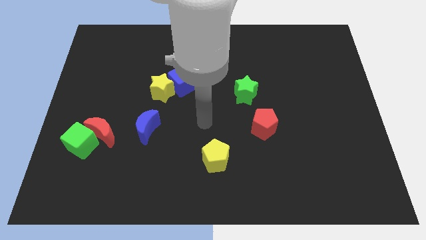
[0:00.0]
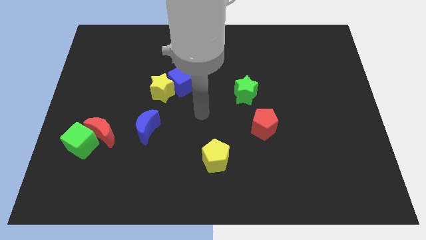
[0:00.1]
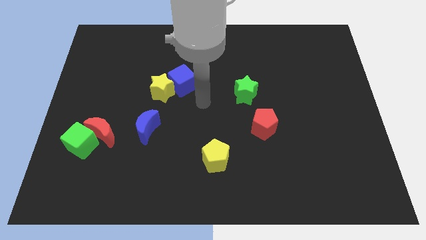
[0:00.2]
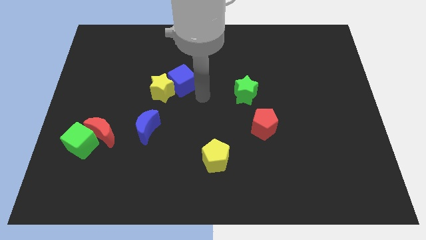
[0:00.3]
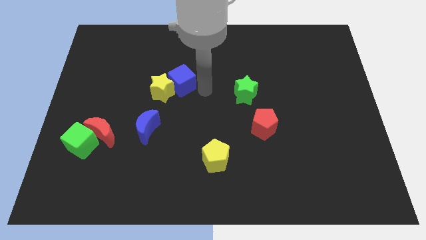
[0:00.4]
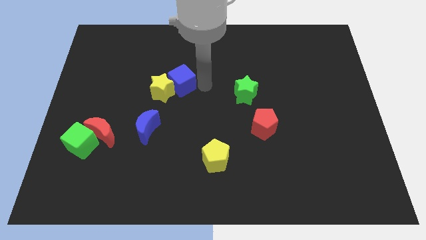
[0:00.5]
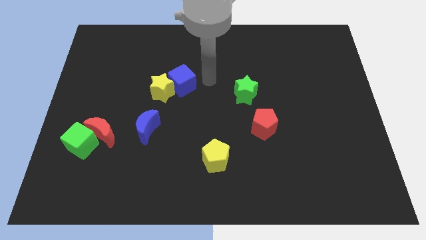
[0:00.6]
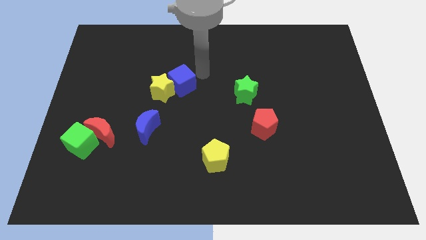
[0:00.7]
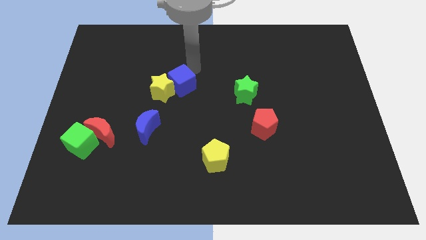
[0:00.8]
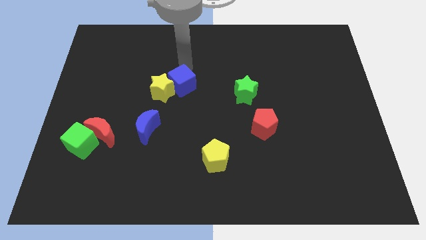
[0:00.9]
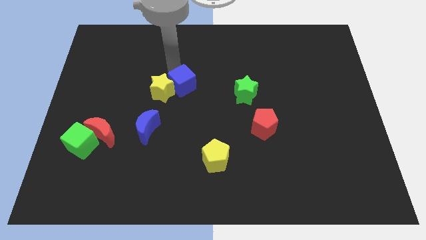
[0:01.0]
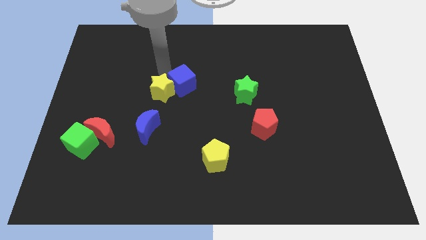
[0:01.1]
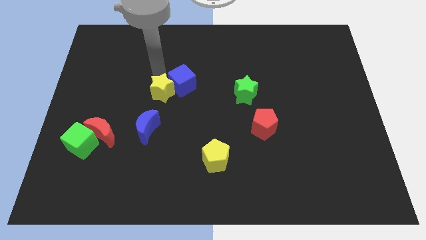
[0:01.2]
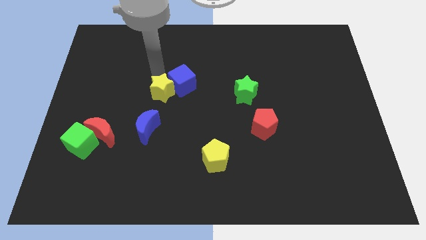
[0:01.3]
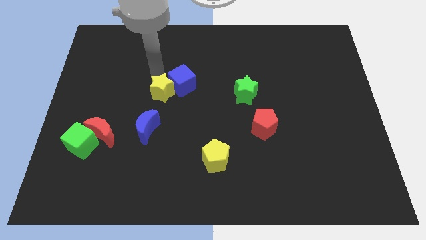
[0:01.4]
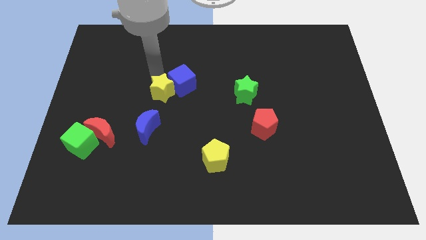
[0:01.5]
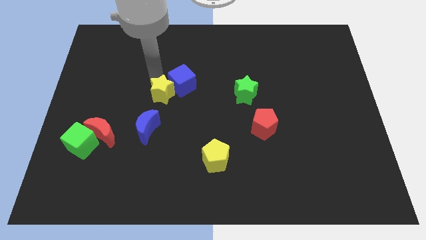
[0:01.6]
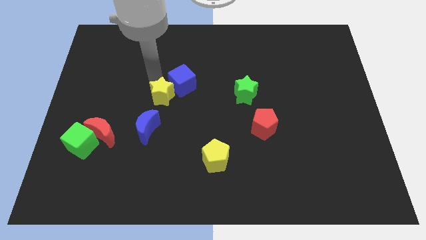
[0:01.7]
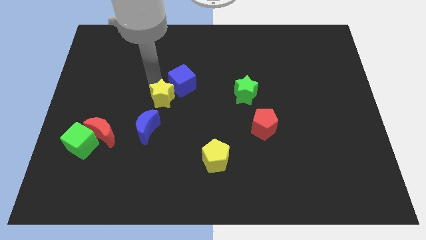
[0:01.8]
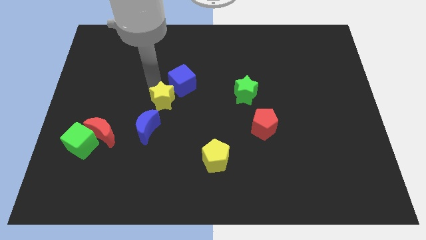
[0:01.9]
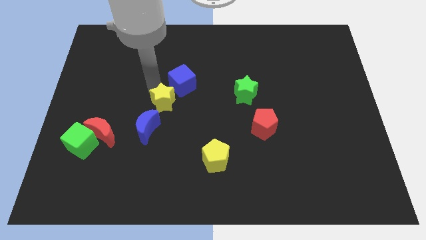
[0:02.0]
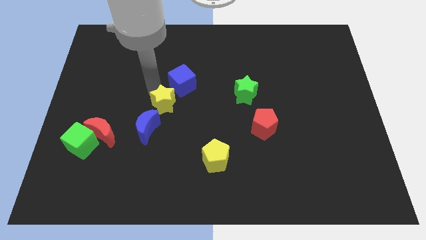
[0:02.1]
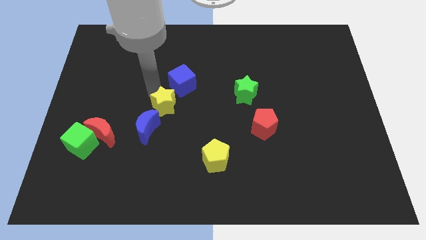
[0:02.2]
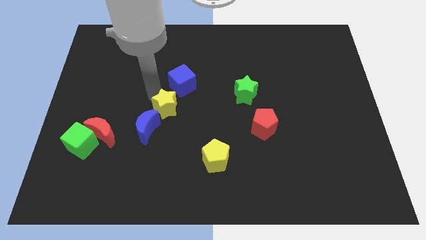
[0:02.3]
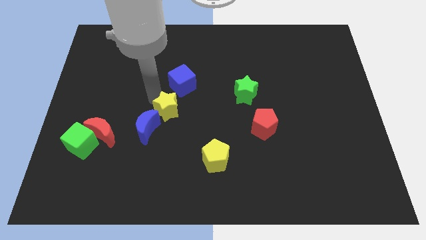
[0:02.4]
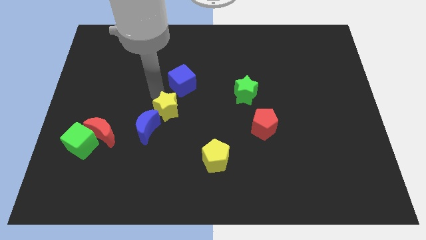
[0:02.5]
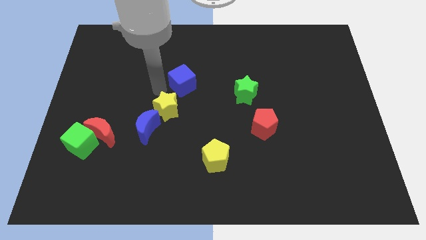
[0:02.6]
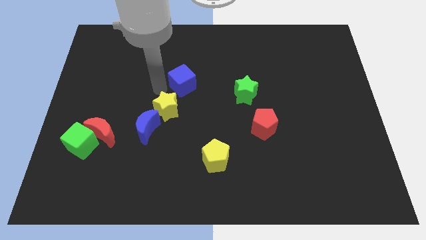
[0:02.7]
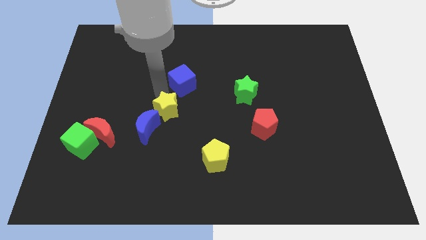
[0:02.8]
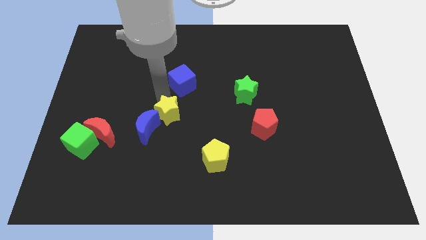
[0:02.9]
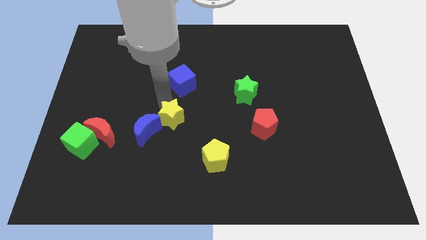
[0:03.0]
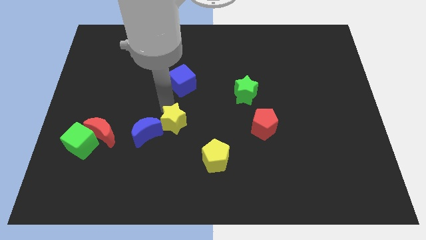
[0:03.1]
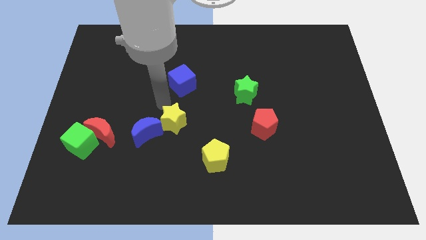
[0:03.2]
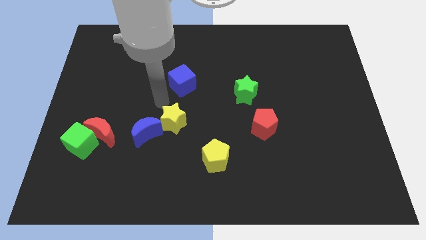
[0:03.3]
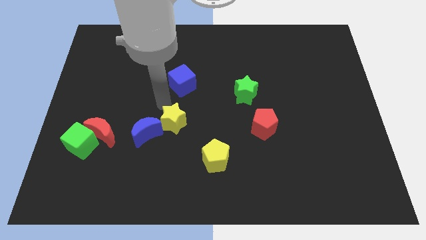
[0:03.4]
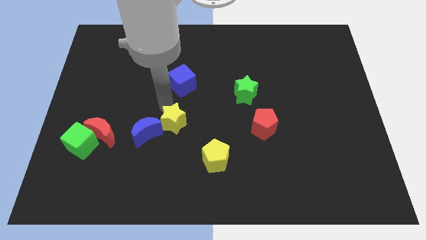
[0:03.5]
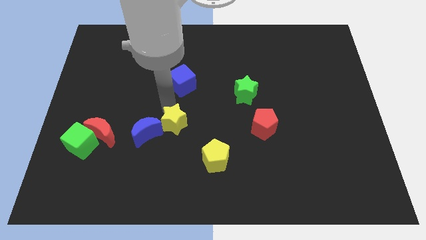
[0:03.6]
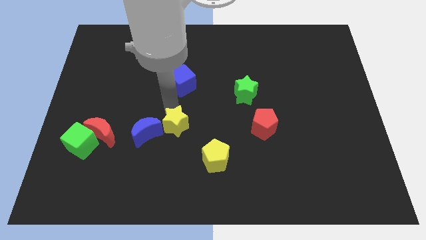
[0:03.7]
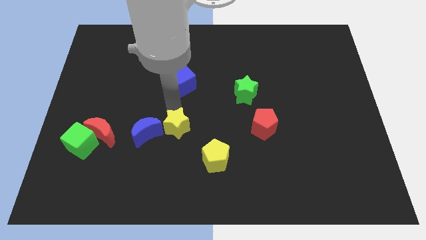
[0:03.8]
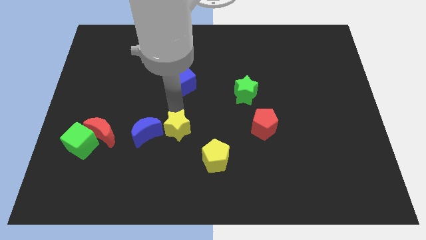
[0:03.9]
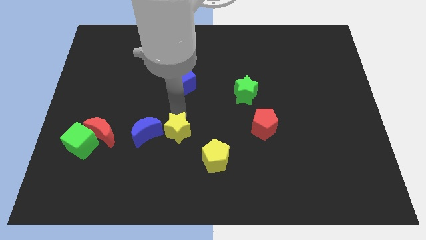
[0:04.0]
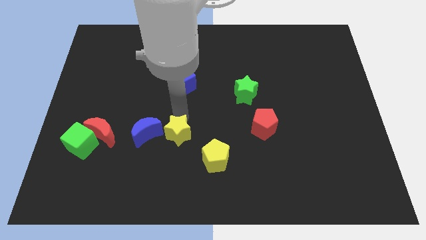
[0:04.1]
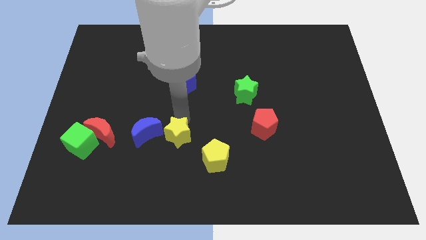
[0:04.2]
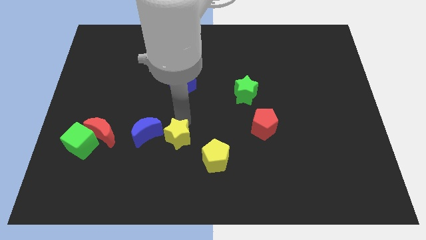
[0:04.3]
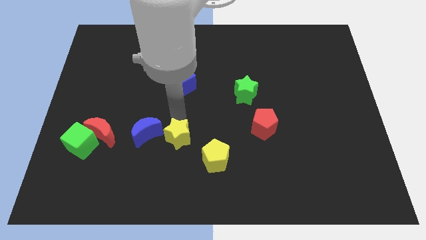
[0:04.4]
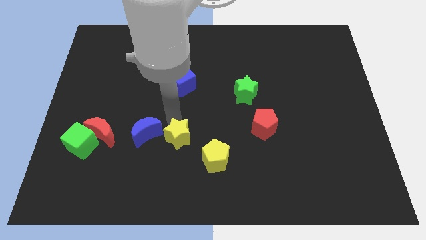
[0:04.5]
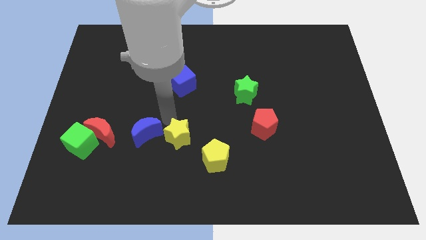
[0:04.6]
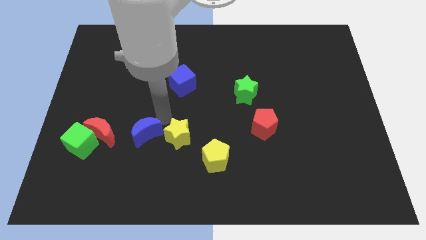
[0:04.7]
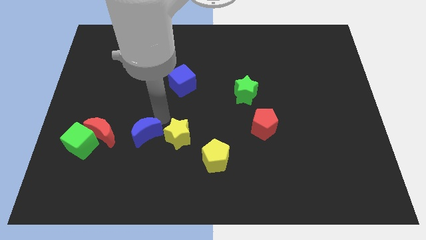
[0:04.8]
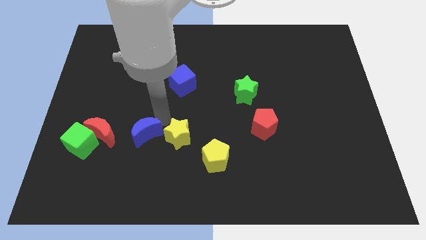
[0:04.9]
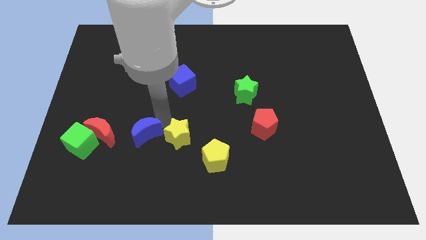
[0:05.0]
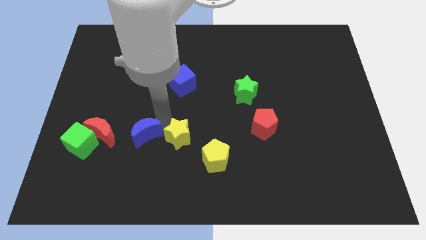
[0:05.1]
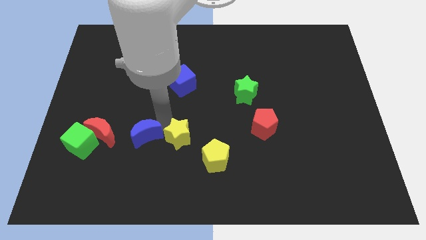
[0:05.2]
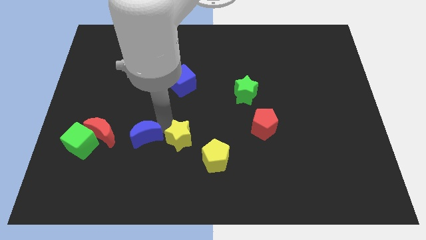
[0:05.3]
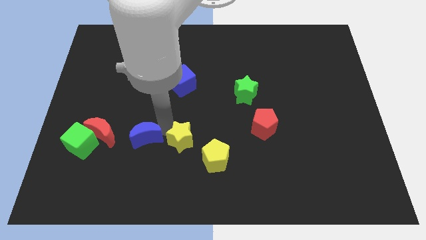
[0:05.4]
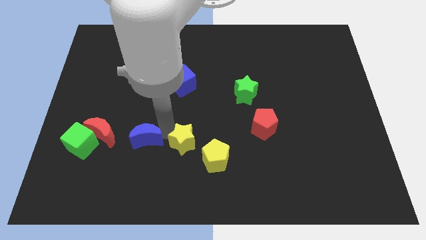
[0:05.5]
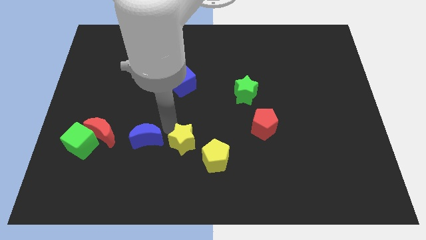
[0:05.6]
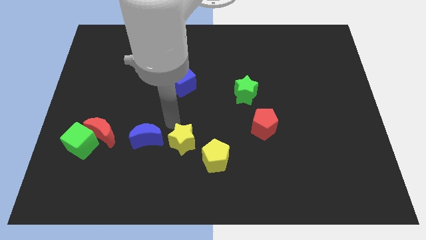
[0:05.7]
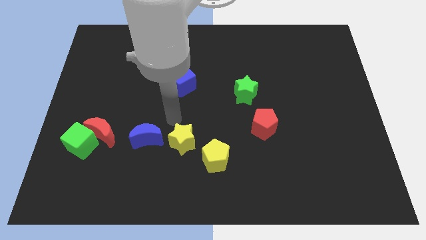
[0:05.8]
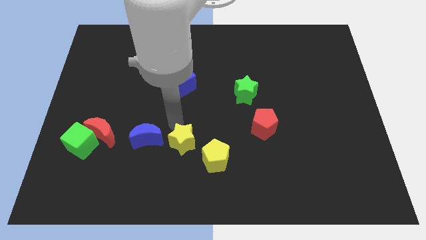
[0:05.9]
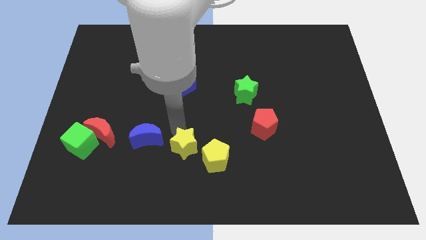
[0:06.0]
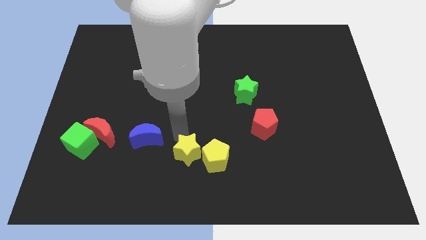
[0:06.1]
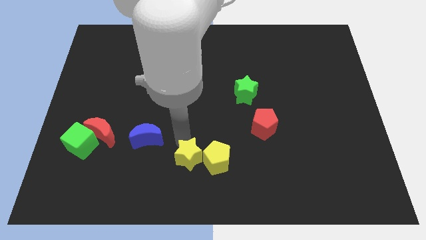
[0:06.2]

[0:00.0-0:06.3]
move the yellow star to the bottom side

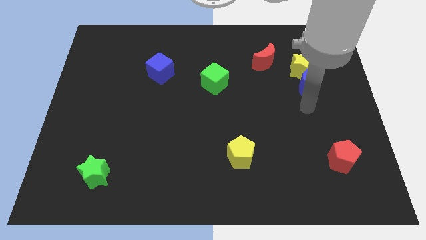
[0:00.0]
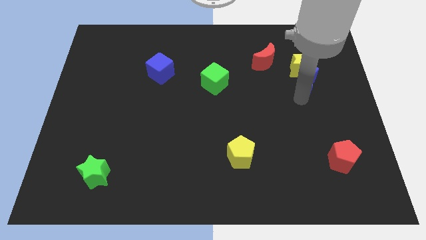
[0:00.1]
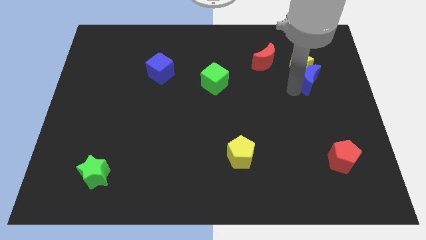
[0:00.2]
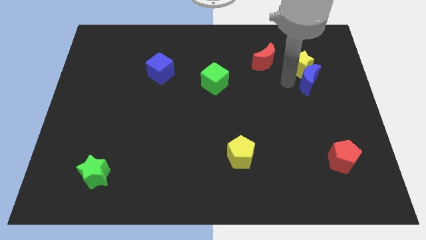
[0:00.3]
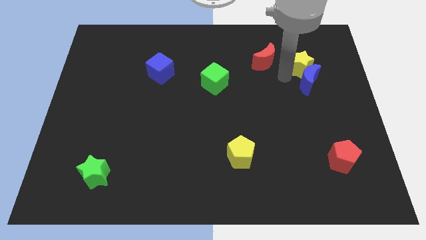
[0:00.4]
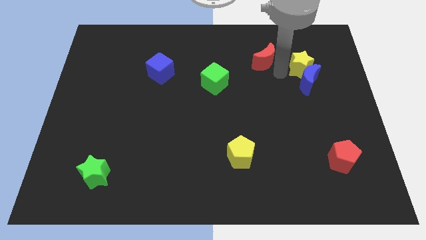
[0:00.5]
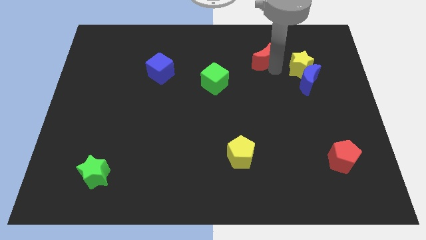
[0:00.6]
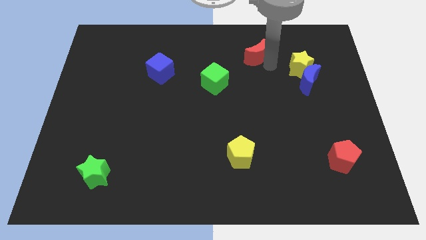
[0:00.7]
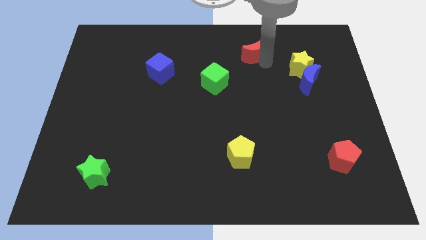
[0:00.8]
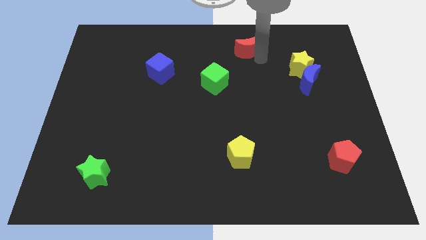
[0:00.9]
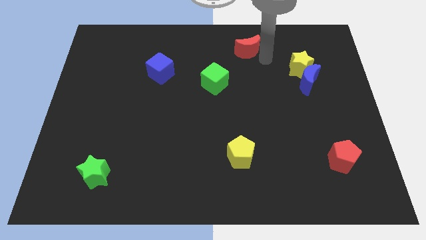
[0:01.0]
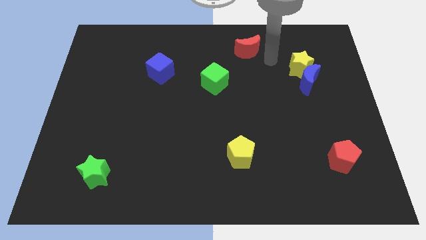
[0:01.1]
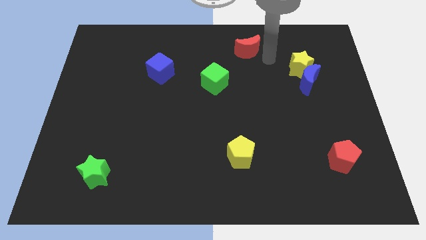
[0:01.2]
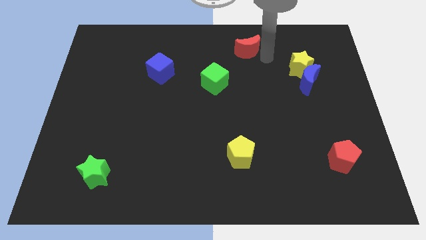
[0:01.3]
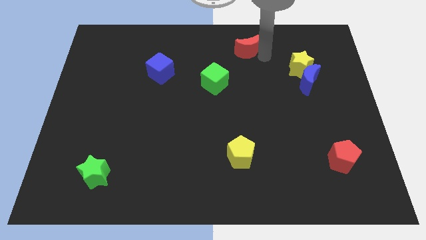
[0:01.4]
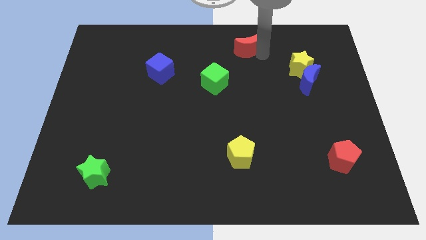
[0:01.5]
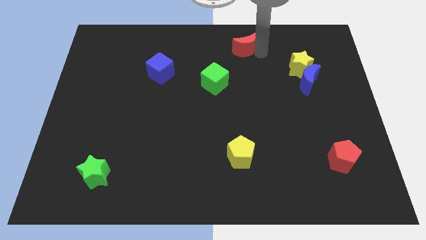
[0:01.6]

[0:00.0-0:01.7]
push the red moon to the towards your base
